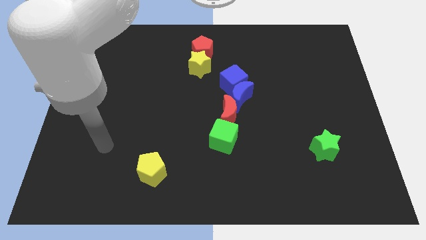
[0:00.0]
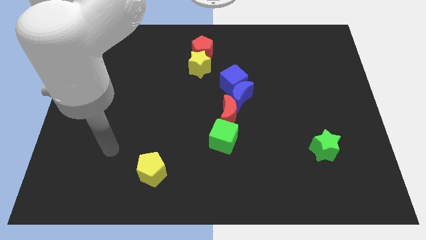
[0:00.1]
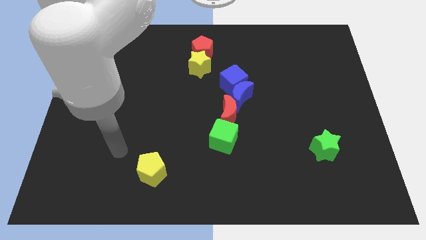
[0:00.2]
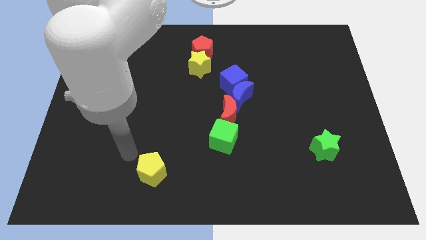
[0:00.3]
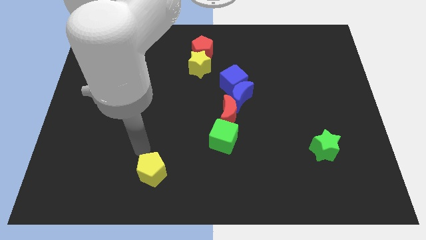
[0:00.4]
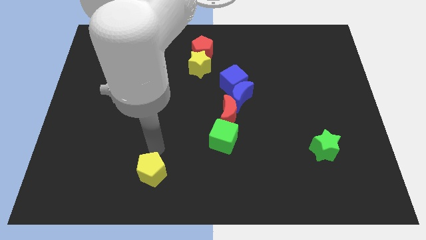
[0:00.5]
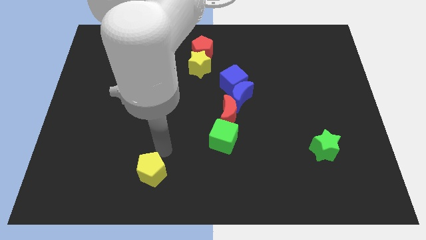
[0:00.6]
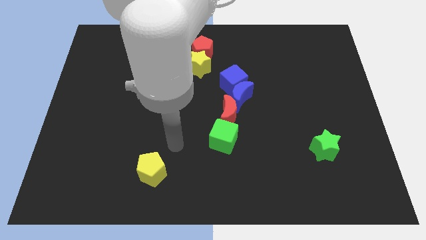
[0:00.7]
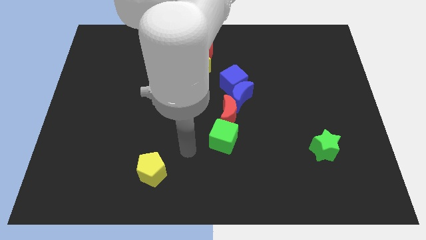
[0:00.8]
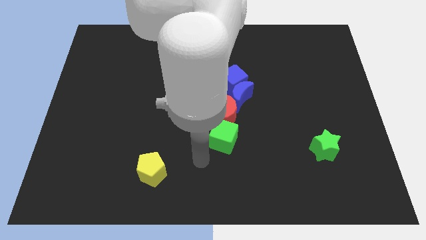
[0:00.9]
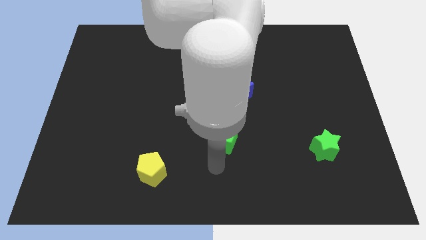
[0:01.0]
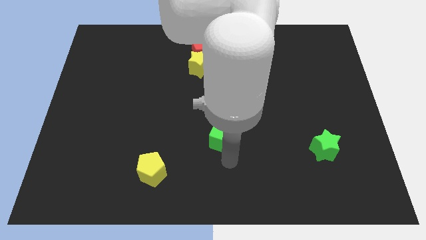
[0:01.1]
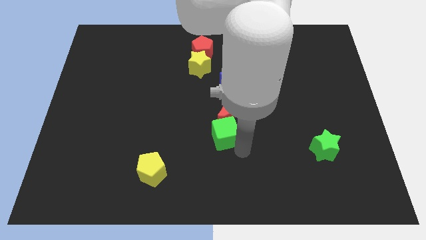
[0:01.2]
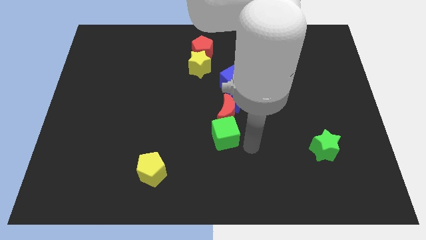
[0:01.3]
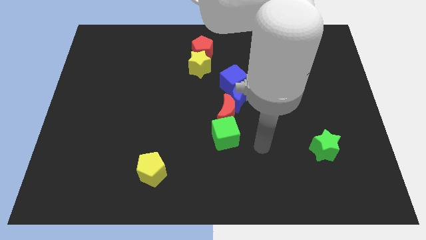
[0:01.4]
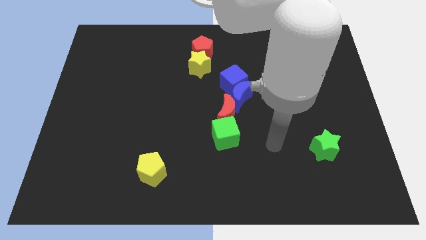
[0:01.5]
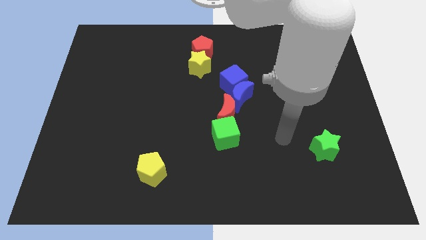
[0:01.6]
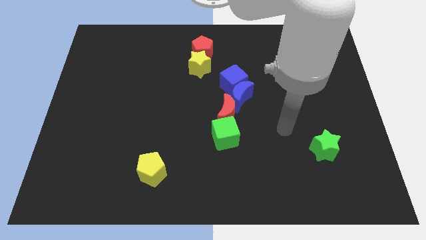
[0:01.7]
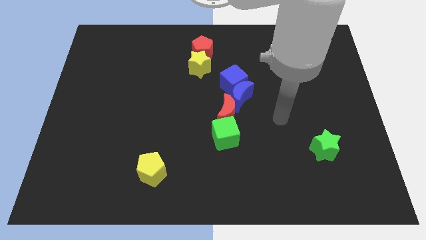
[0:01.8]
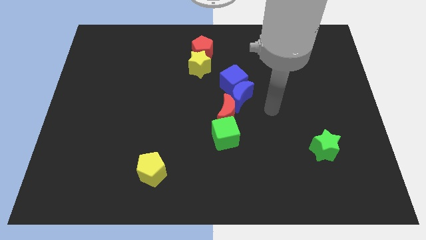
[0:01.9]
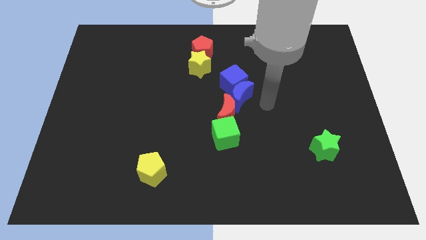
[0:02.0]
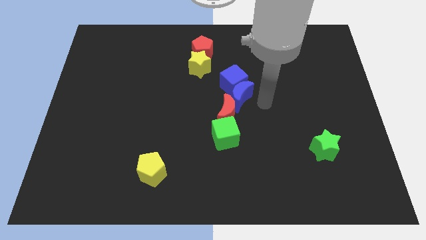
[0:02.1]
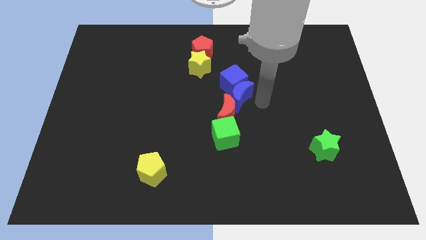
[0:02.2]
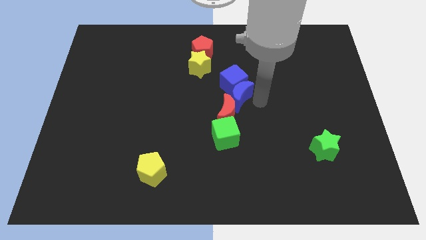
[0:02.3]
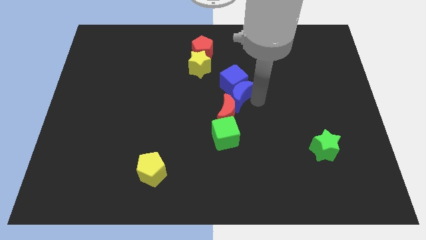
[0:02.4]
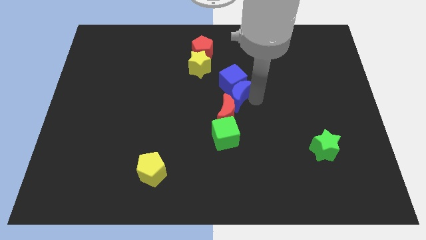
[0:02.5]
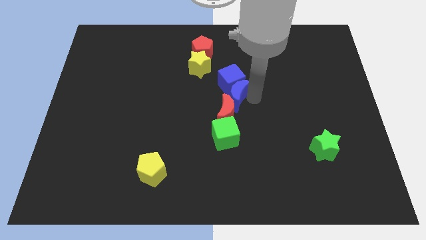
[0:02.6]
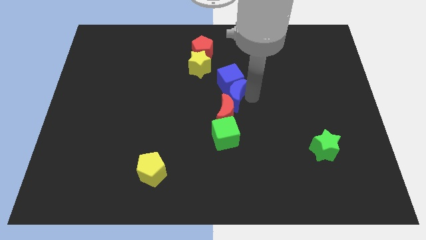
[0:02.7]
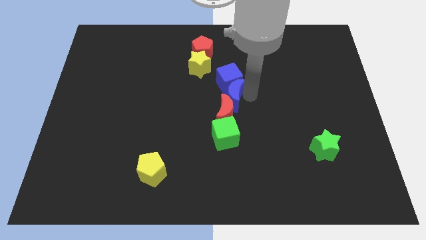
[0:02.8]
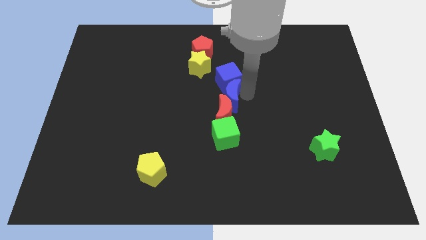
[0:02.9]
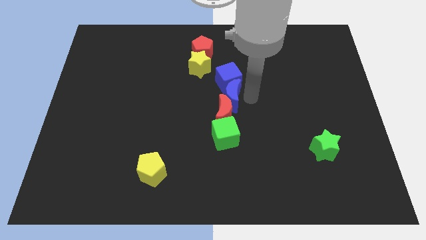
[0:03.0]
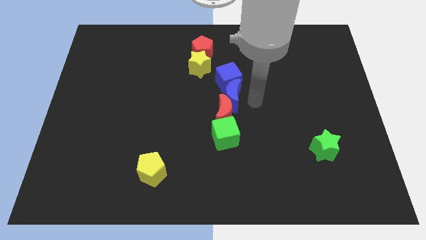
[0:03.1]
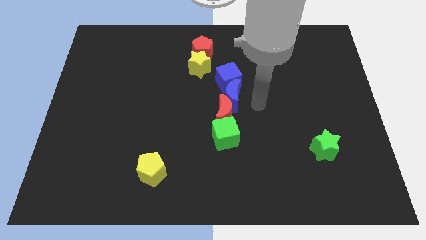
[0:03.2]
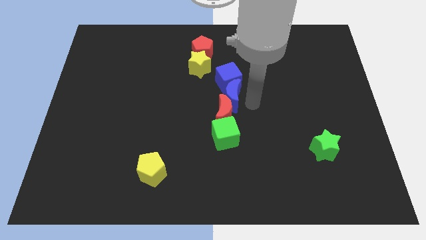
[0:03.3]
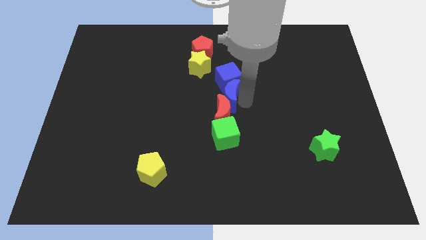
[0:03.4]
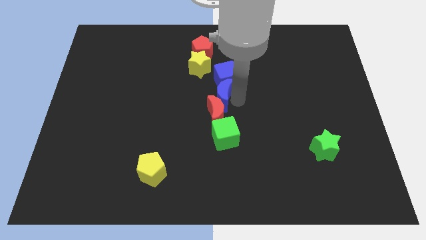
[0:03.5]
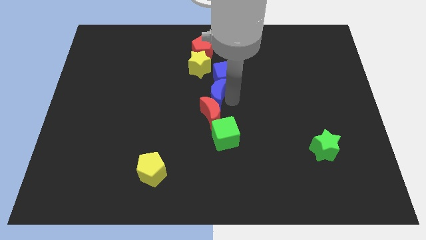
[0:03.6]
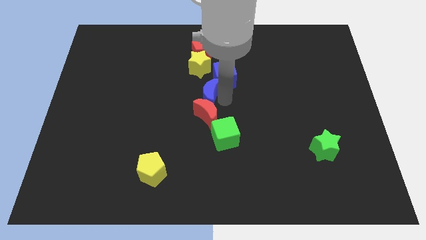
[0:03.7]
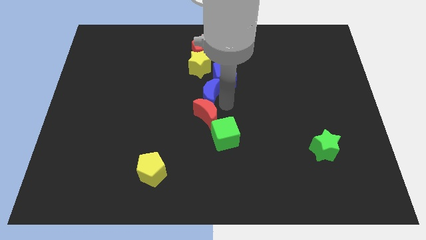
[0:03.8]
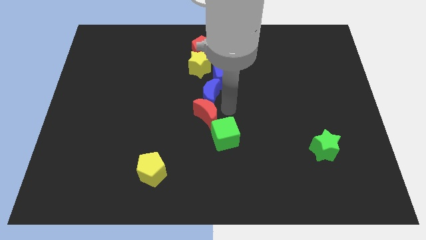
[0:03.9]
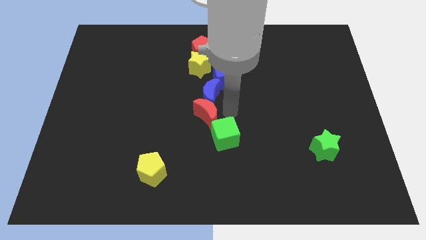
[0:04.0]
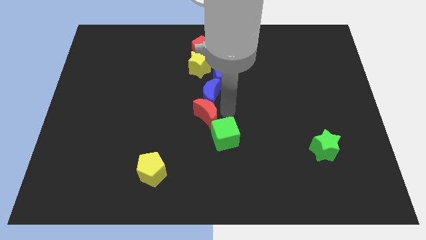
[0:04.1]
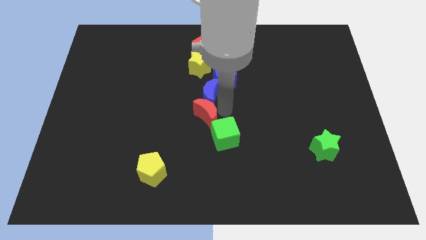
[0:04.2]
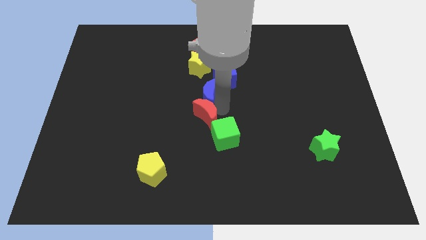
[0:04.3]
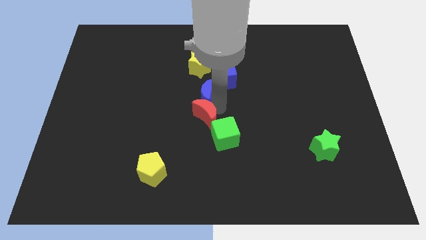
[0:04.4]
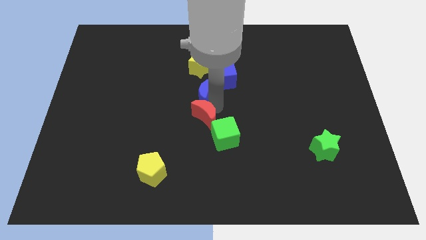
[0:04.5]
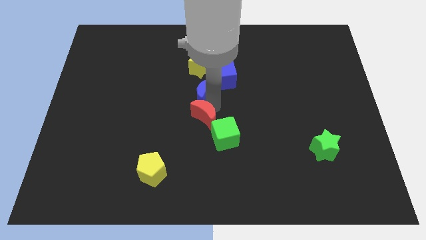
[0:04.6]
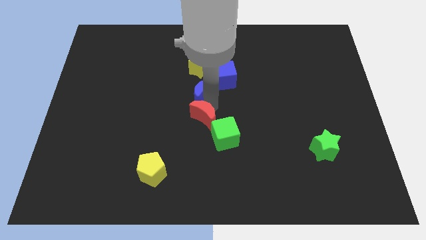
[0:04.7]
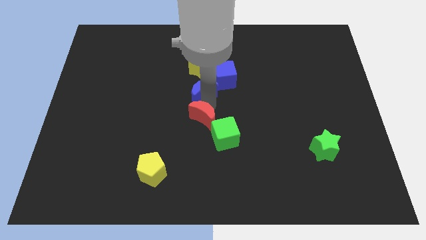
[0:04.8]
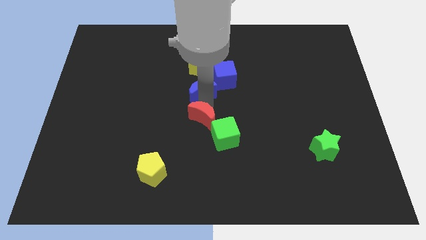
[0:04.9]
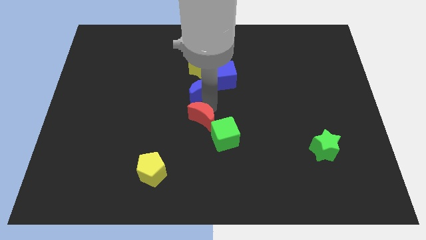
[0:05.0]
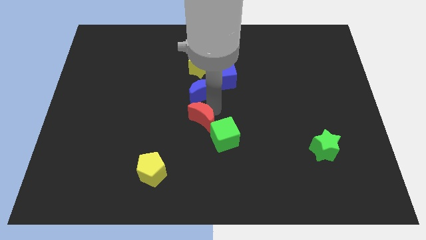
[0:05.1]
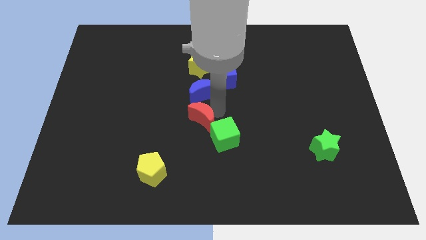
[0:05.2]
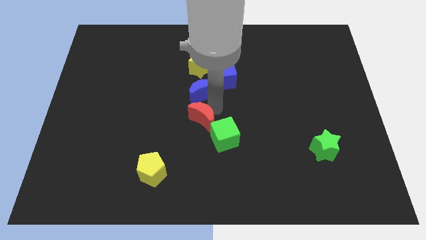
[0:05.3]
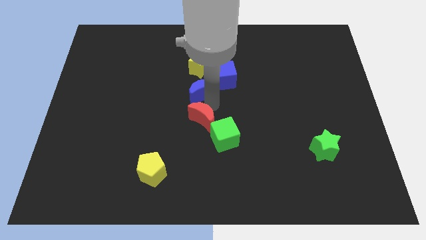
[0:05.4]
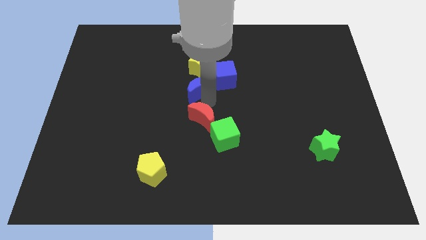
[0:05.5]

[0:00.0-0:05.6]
move the blue moon a little bit up and left diagonally

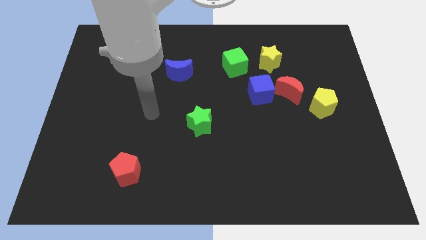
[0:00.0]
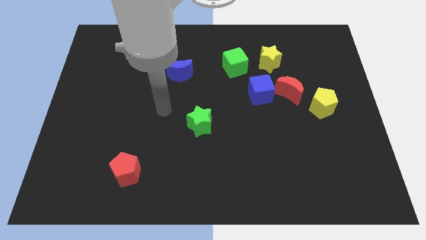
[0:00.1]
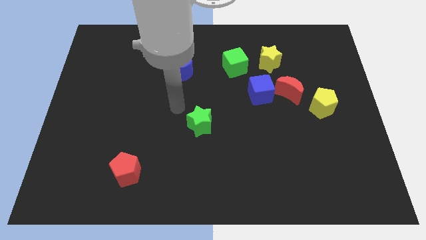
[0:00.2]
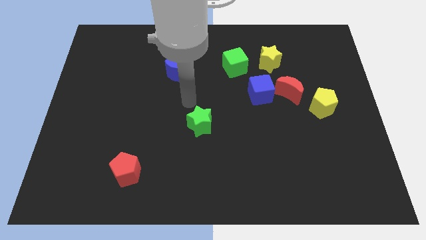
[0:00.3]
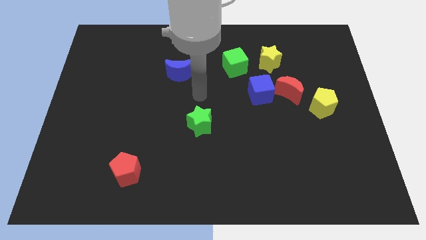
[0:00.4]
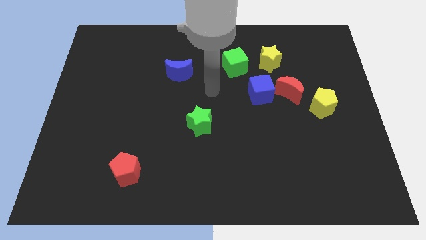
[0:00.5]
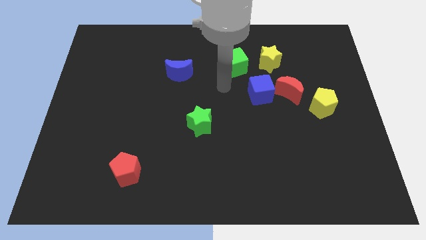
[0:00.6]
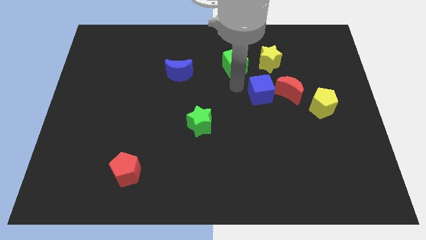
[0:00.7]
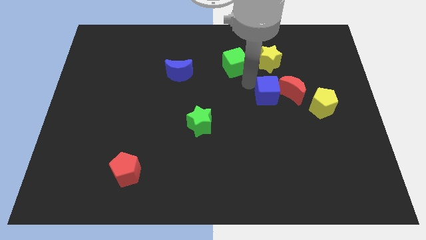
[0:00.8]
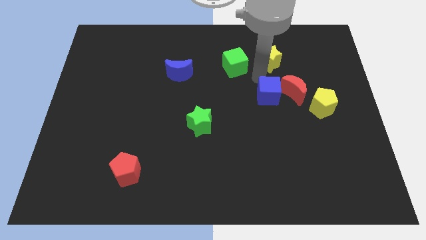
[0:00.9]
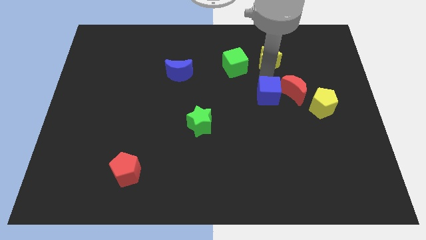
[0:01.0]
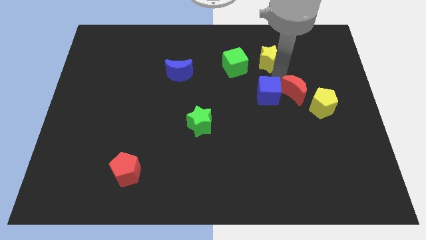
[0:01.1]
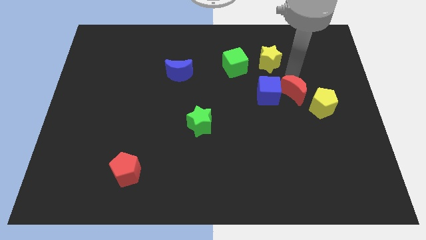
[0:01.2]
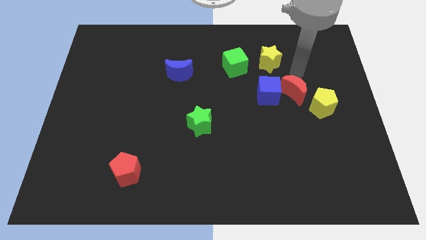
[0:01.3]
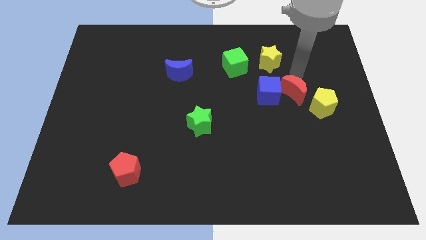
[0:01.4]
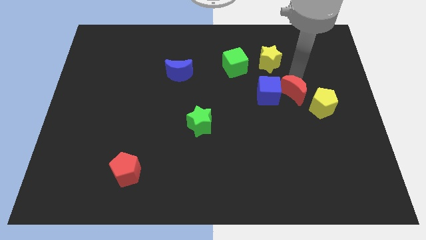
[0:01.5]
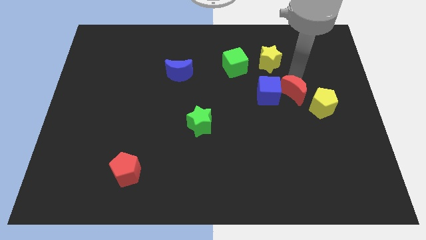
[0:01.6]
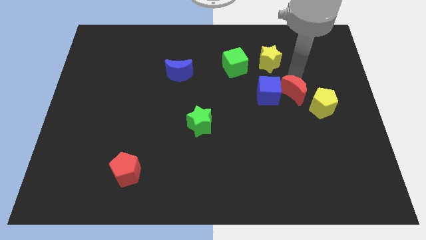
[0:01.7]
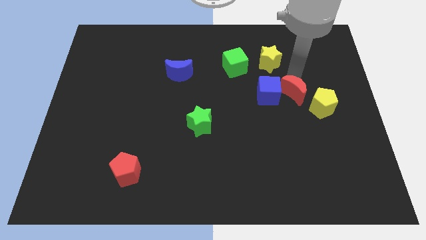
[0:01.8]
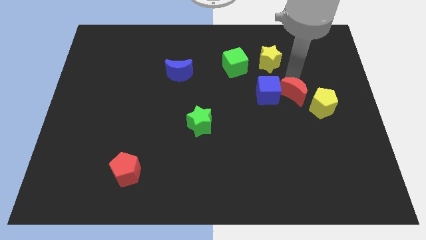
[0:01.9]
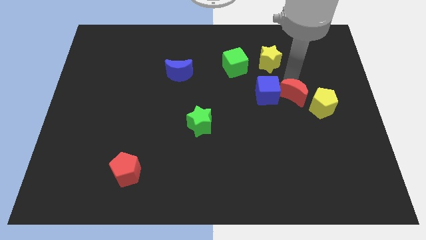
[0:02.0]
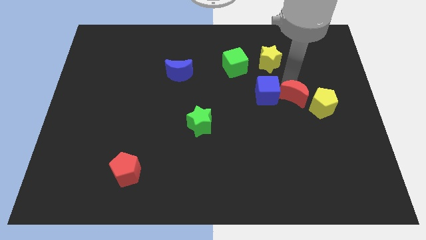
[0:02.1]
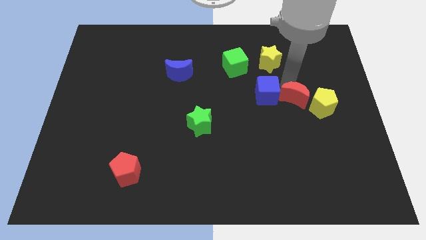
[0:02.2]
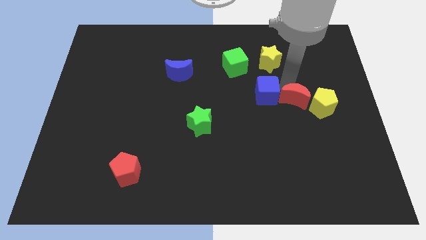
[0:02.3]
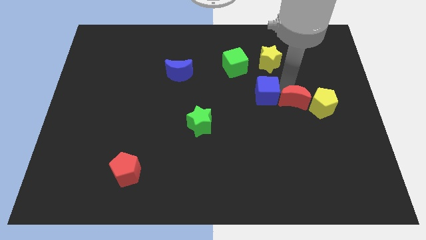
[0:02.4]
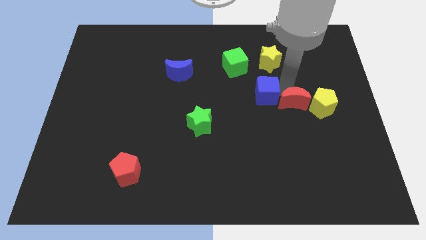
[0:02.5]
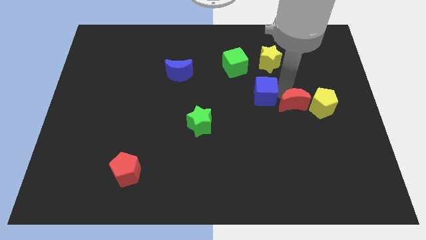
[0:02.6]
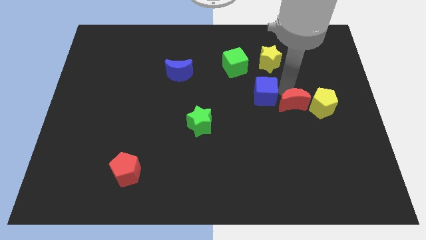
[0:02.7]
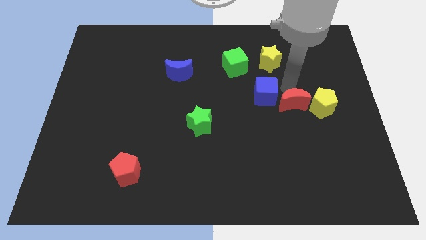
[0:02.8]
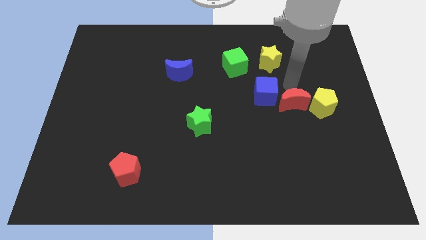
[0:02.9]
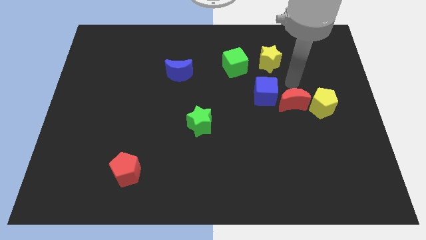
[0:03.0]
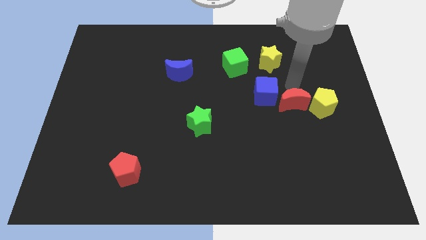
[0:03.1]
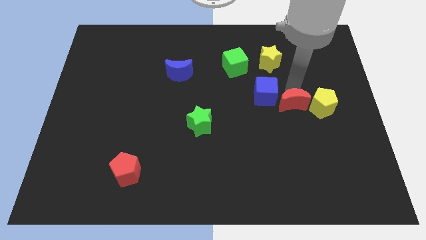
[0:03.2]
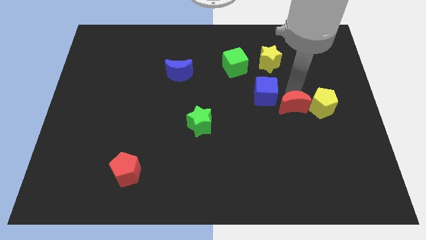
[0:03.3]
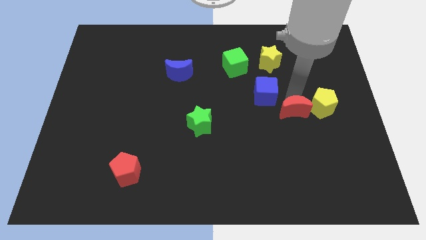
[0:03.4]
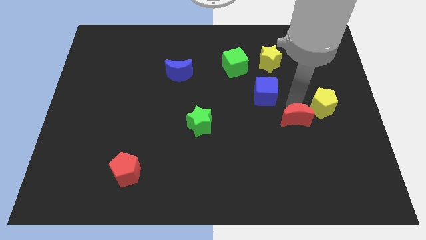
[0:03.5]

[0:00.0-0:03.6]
move the red moon downwards a bit
